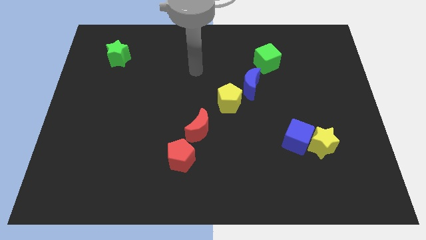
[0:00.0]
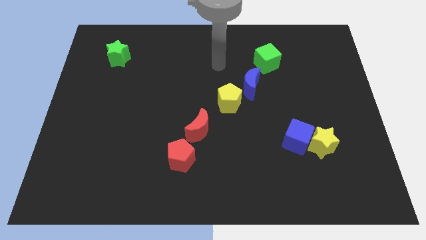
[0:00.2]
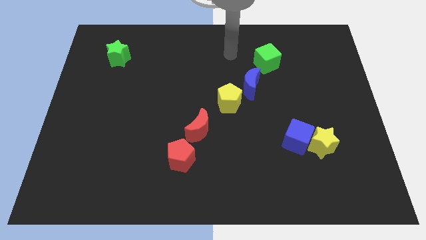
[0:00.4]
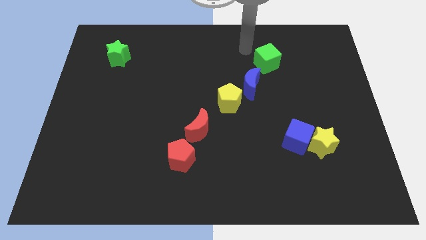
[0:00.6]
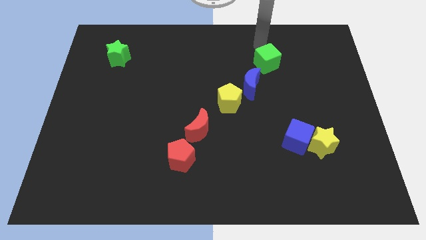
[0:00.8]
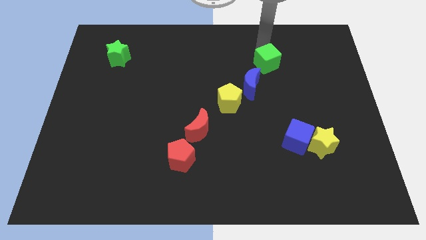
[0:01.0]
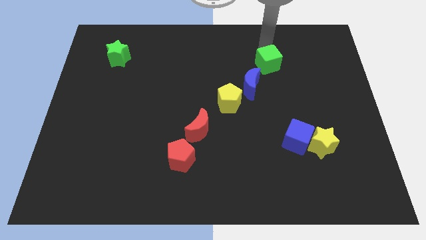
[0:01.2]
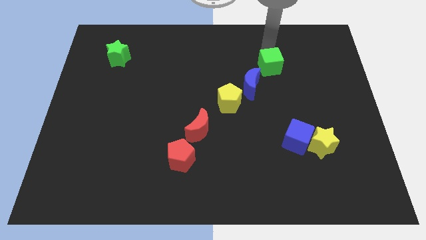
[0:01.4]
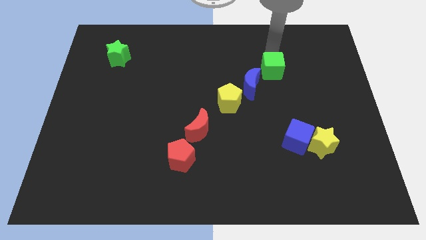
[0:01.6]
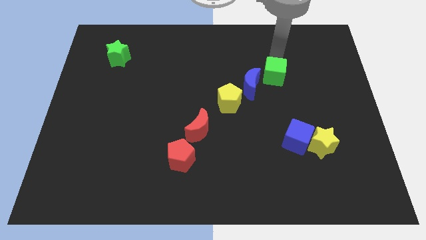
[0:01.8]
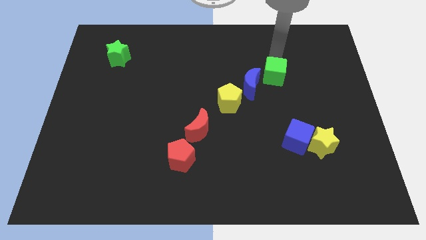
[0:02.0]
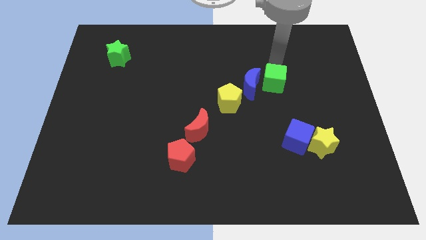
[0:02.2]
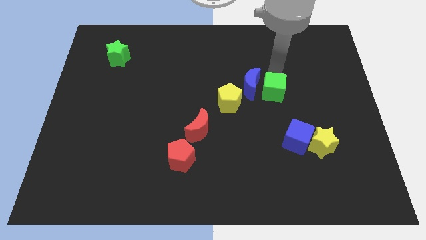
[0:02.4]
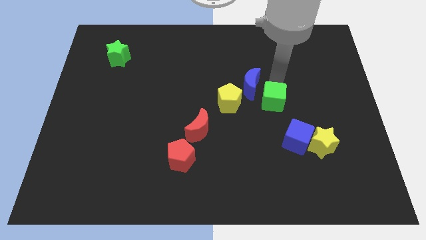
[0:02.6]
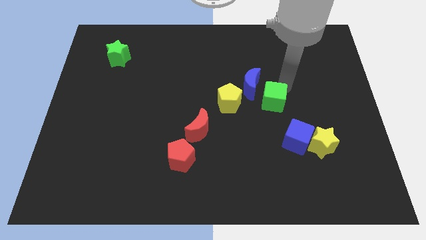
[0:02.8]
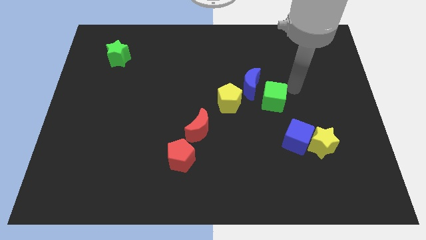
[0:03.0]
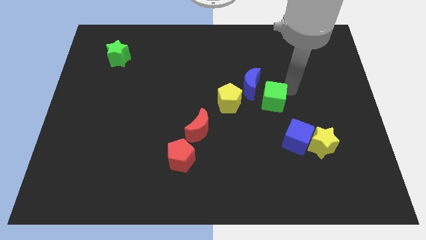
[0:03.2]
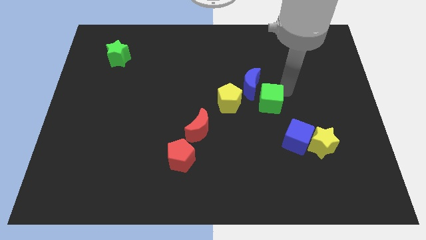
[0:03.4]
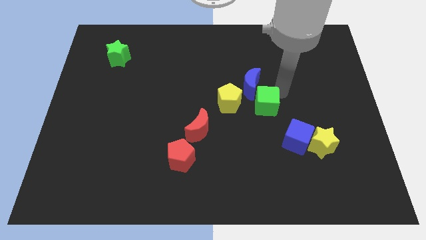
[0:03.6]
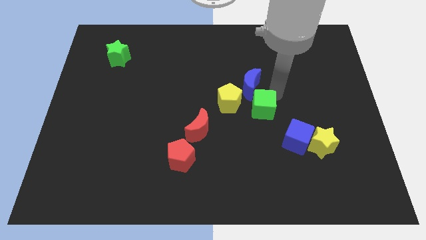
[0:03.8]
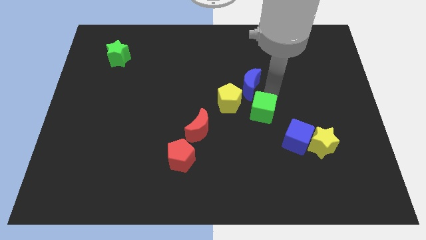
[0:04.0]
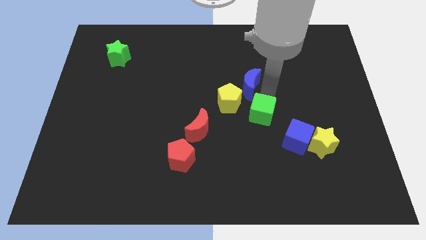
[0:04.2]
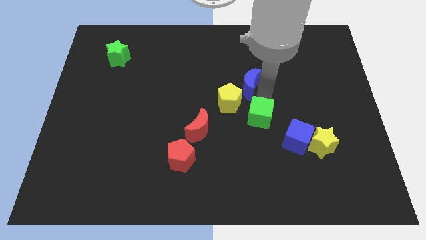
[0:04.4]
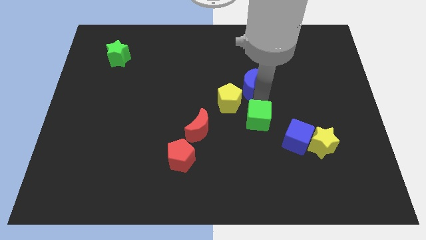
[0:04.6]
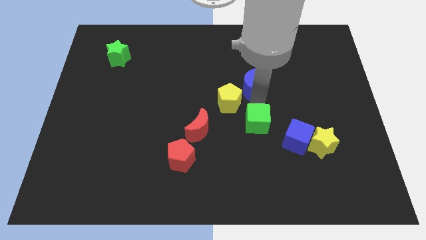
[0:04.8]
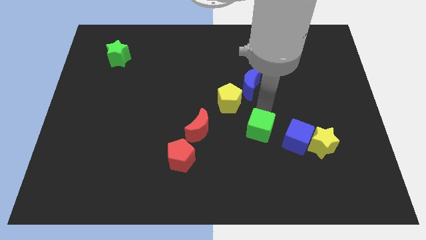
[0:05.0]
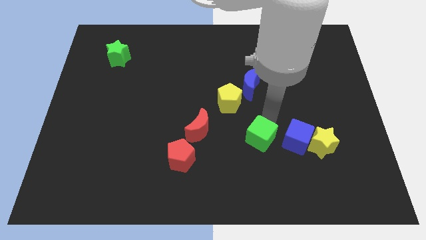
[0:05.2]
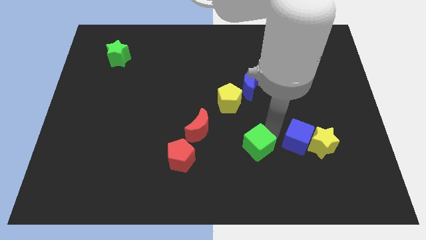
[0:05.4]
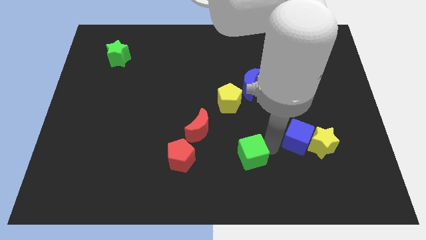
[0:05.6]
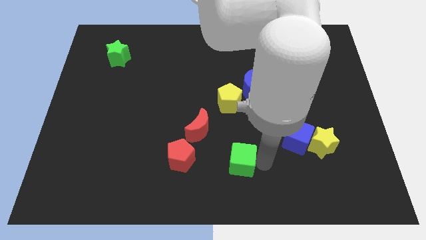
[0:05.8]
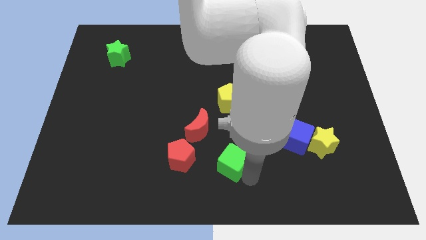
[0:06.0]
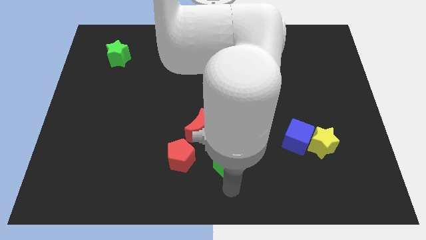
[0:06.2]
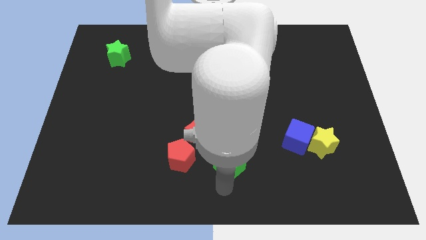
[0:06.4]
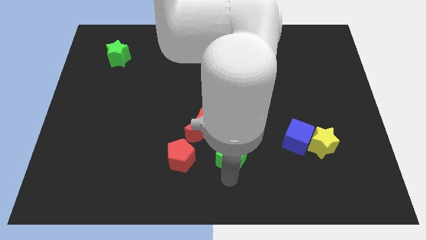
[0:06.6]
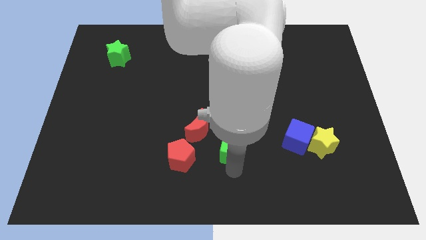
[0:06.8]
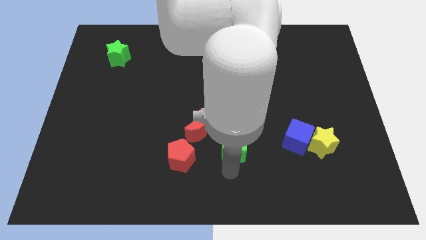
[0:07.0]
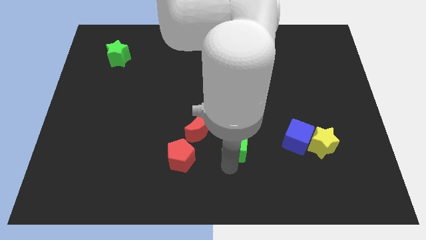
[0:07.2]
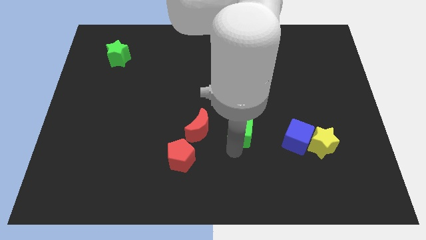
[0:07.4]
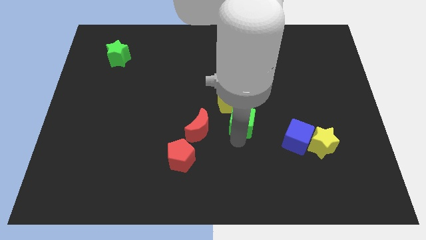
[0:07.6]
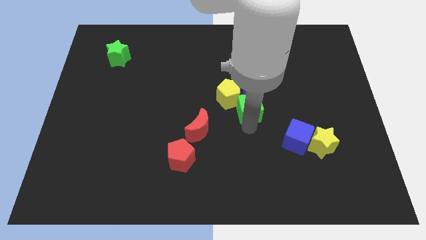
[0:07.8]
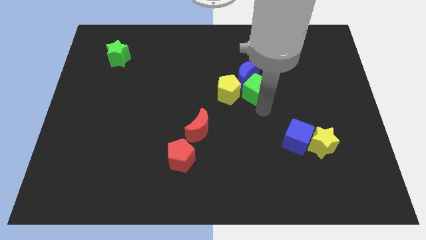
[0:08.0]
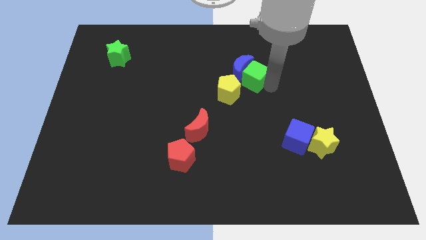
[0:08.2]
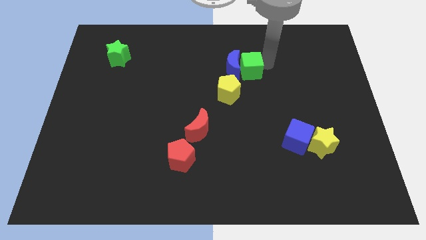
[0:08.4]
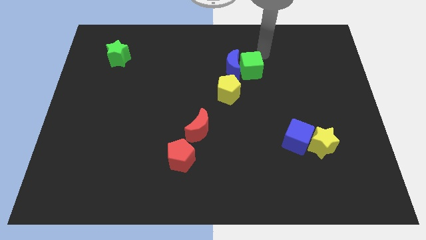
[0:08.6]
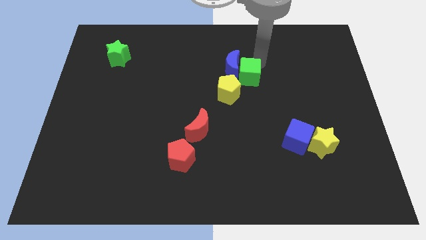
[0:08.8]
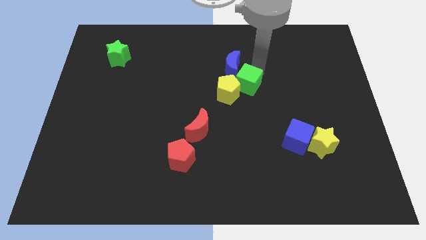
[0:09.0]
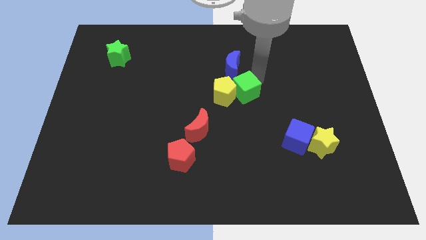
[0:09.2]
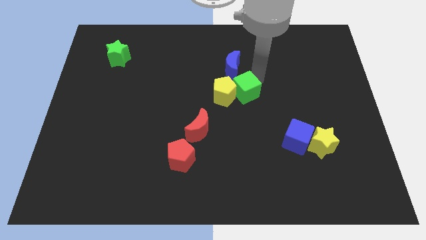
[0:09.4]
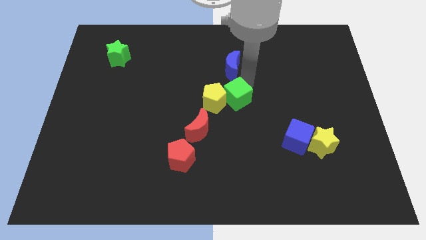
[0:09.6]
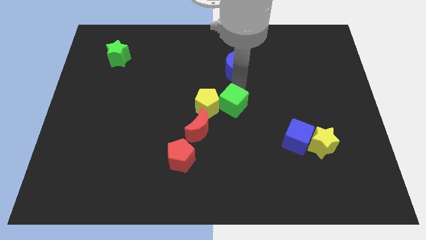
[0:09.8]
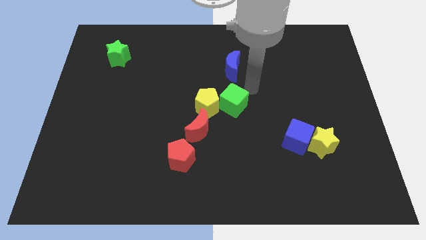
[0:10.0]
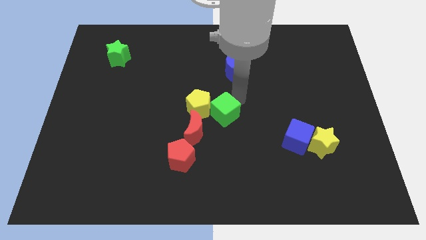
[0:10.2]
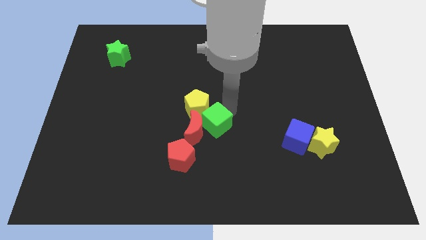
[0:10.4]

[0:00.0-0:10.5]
slide the green cube close to the red moon

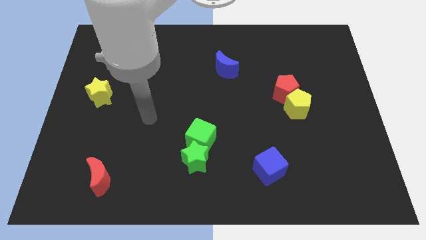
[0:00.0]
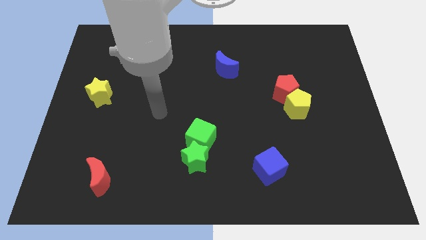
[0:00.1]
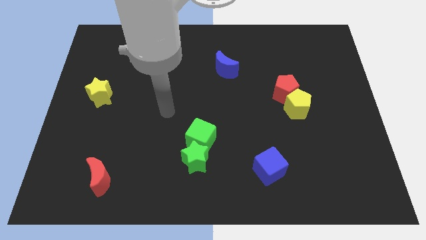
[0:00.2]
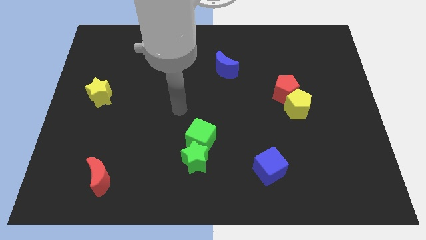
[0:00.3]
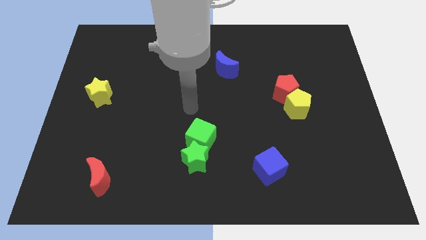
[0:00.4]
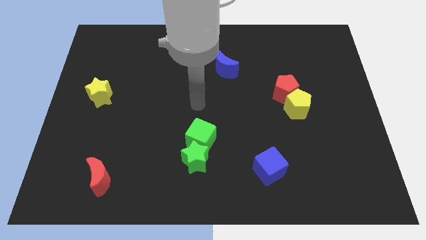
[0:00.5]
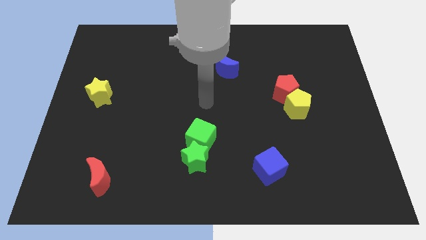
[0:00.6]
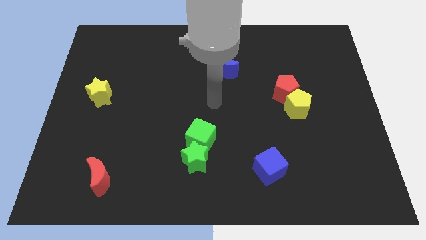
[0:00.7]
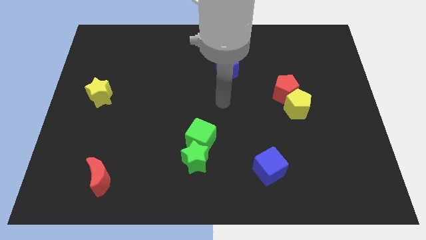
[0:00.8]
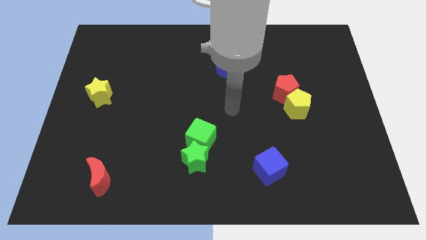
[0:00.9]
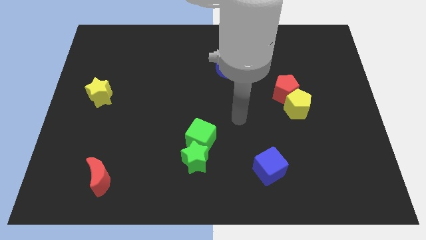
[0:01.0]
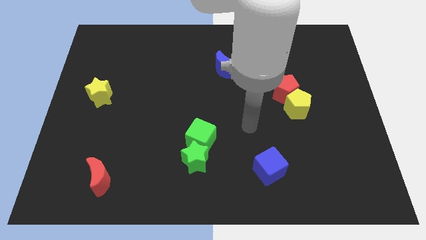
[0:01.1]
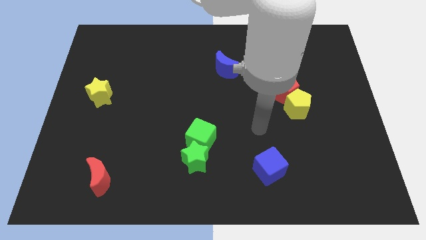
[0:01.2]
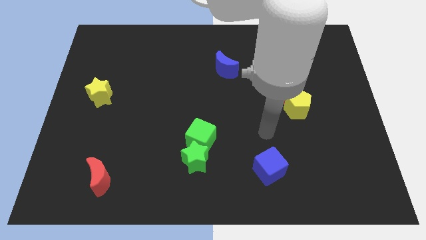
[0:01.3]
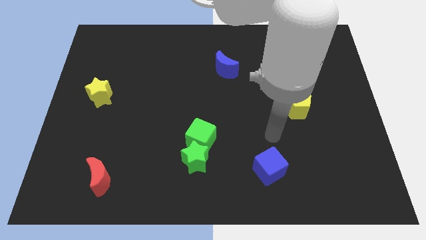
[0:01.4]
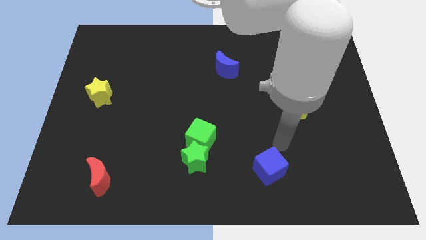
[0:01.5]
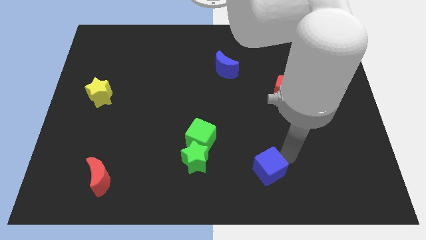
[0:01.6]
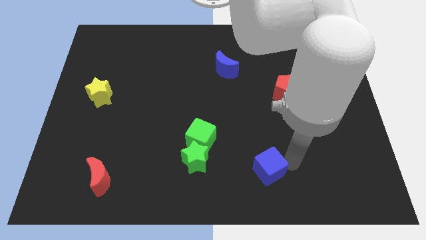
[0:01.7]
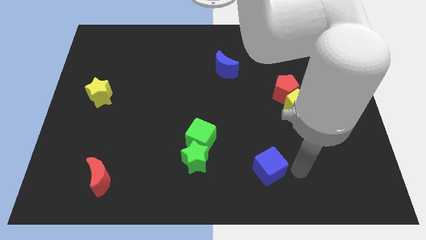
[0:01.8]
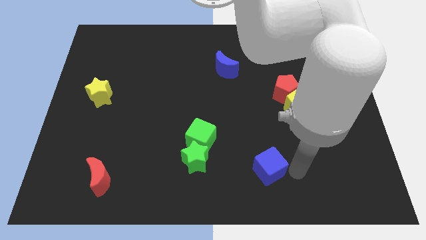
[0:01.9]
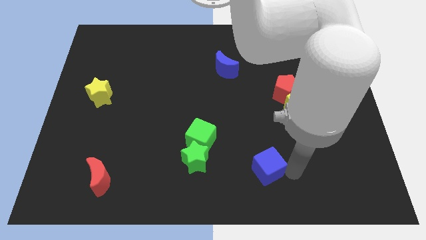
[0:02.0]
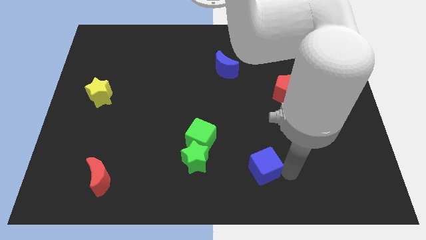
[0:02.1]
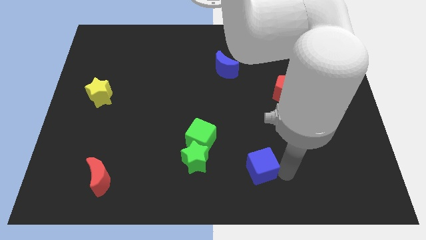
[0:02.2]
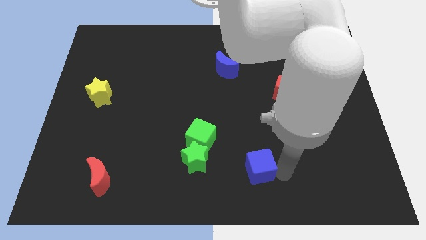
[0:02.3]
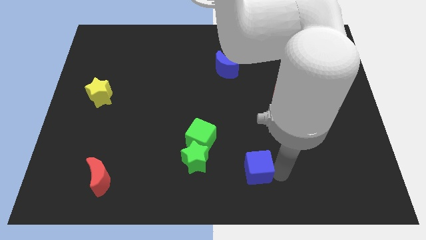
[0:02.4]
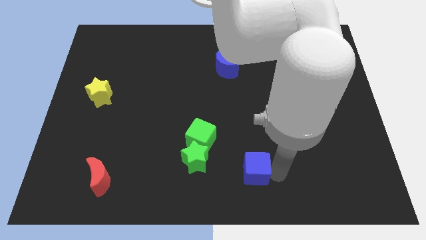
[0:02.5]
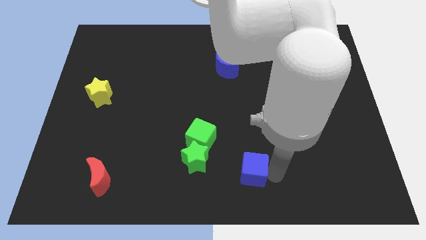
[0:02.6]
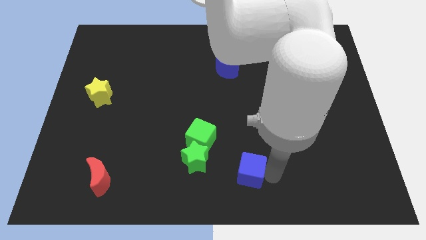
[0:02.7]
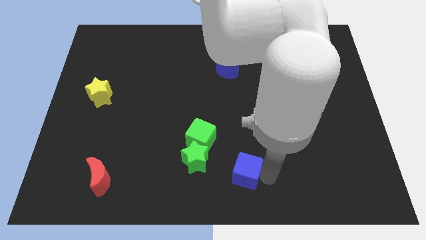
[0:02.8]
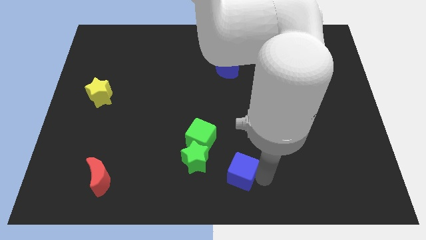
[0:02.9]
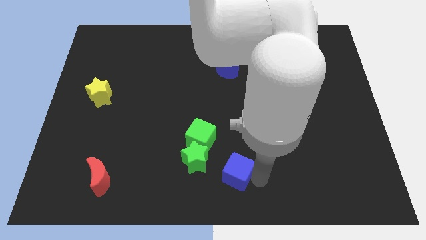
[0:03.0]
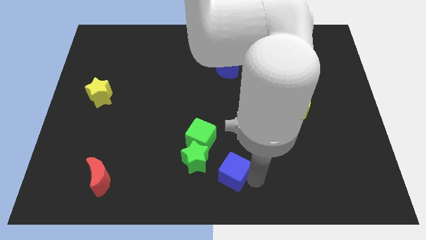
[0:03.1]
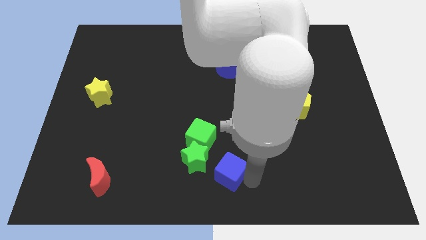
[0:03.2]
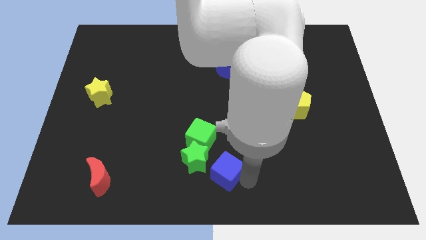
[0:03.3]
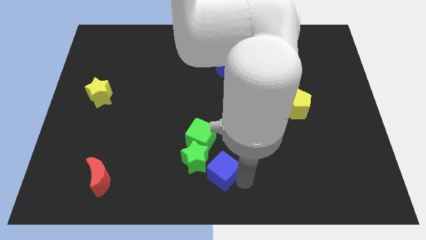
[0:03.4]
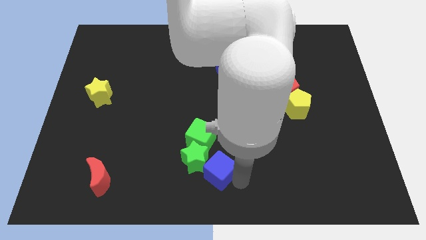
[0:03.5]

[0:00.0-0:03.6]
move the blue cube next to the green star
